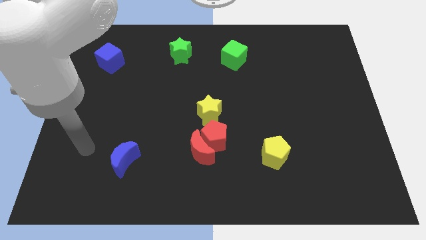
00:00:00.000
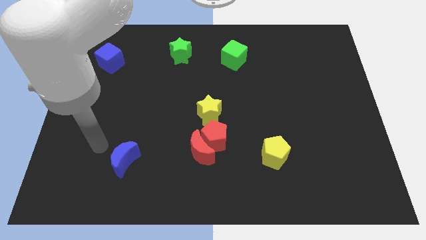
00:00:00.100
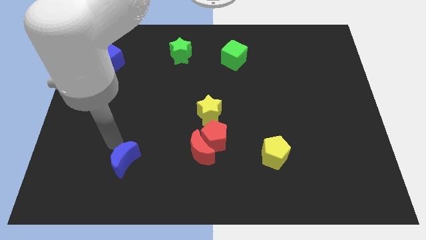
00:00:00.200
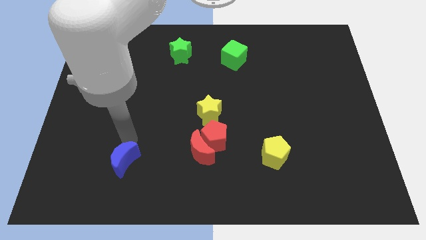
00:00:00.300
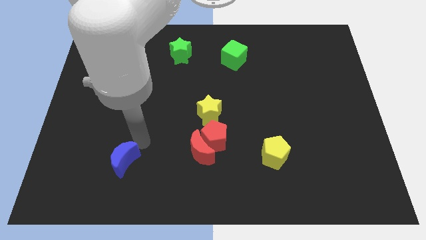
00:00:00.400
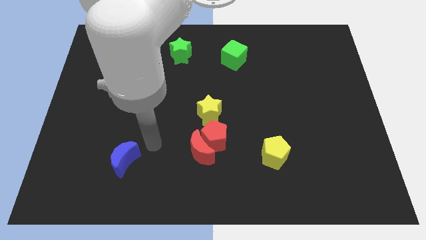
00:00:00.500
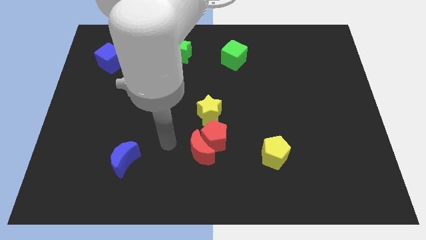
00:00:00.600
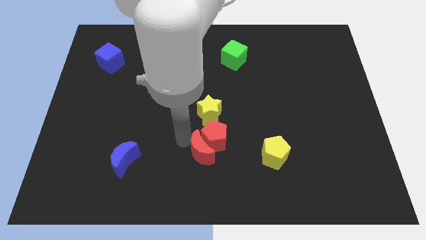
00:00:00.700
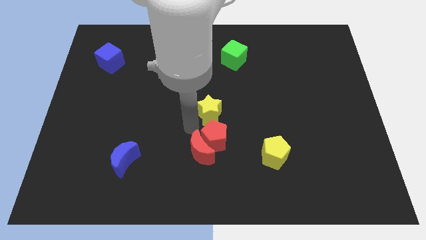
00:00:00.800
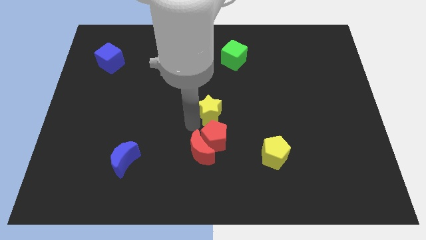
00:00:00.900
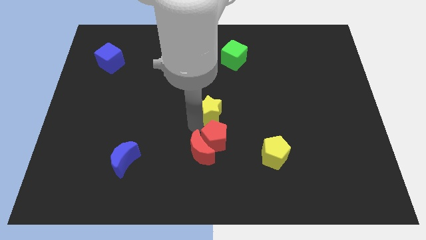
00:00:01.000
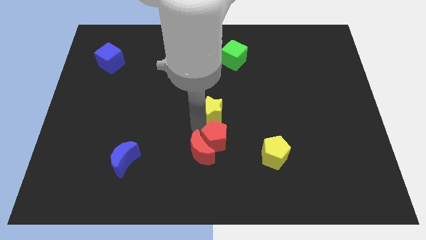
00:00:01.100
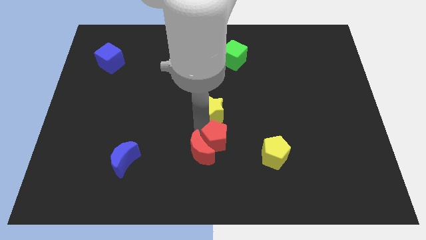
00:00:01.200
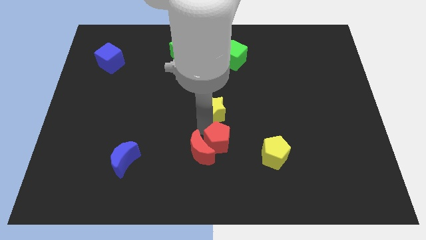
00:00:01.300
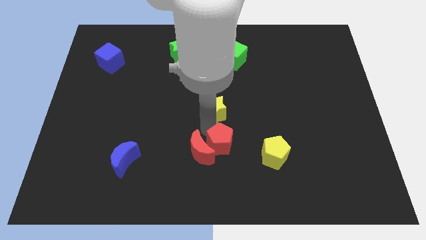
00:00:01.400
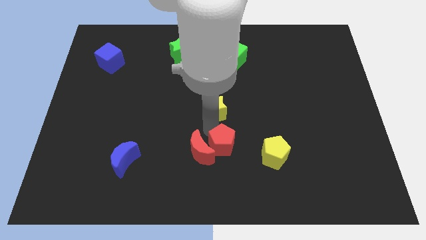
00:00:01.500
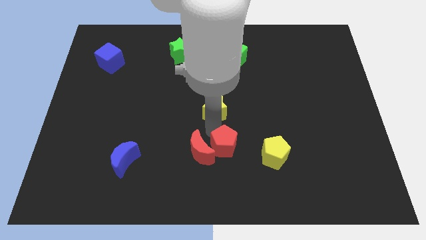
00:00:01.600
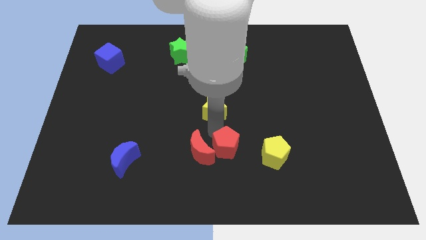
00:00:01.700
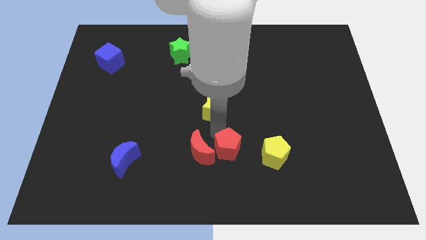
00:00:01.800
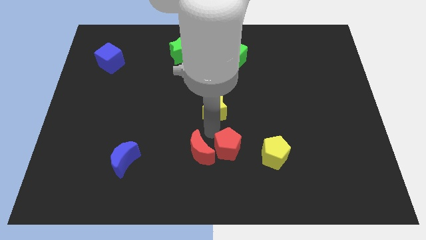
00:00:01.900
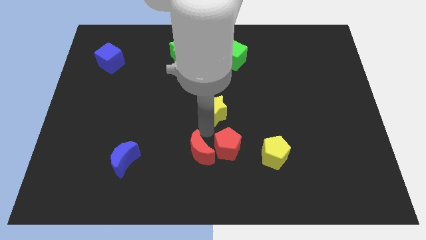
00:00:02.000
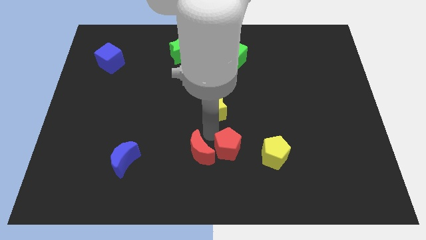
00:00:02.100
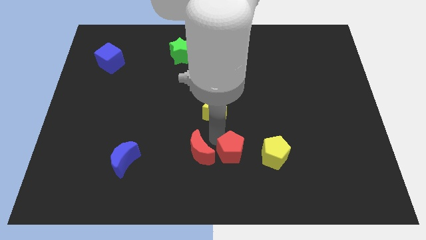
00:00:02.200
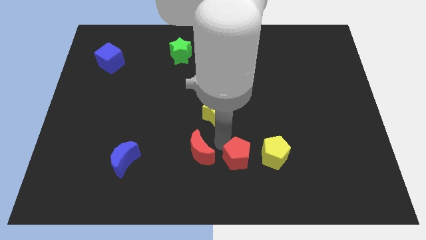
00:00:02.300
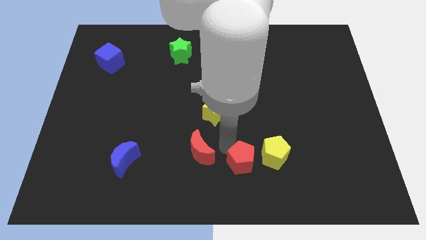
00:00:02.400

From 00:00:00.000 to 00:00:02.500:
move the red pentagon away from the red moon and yellow star

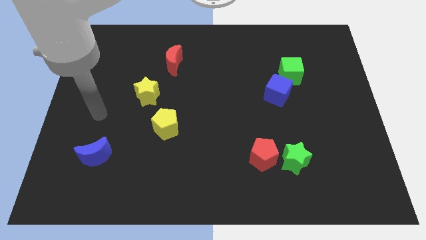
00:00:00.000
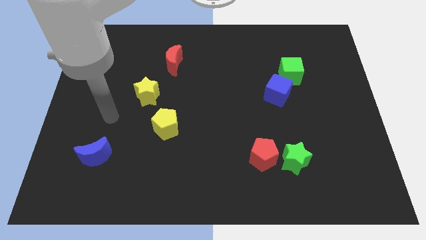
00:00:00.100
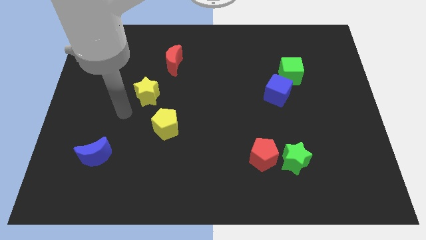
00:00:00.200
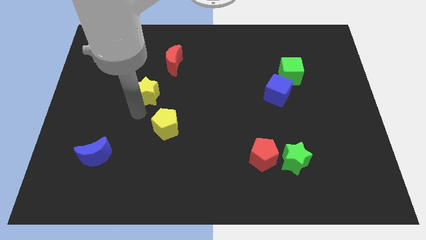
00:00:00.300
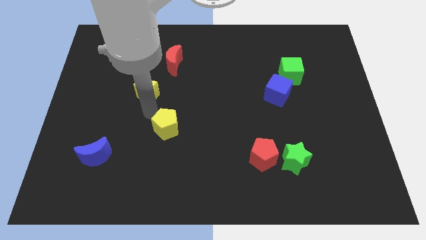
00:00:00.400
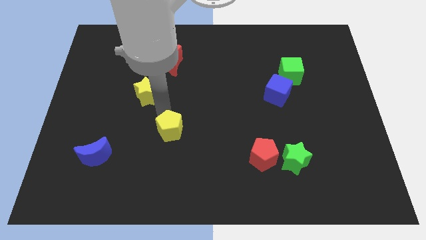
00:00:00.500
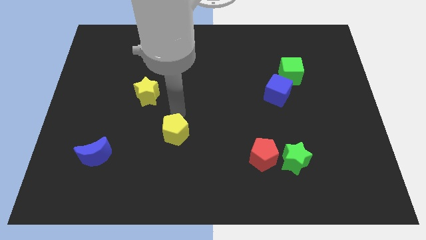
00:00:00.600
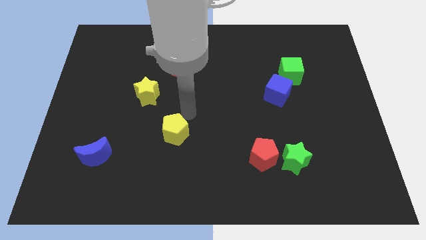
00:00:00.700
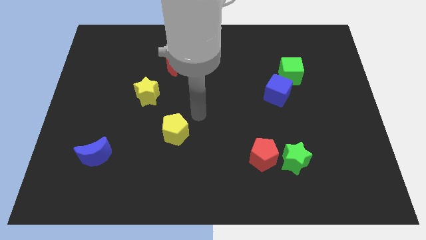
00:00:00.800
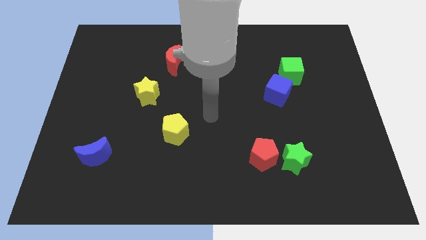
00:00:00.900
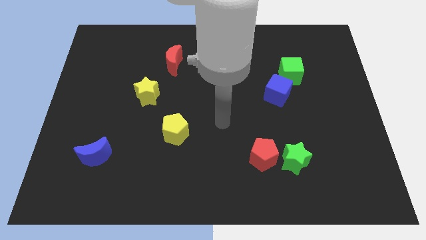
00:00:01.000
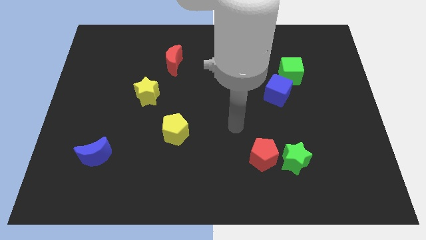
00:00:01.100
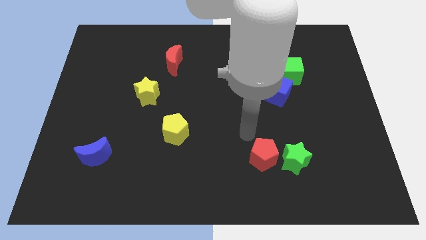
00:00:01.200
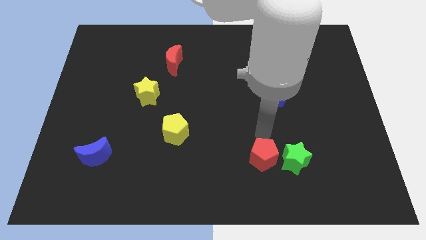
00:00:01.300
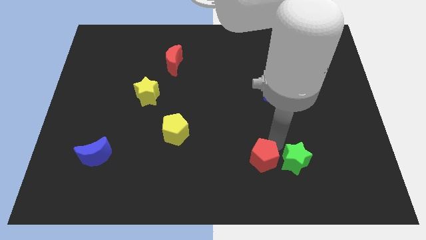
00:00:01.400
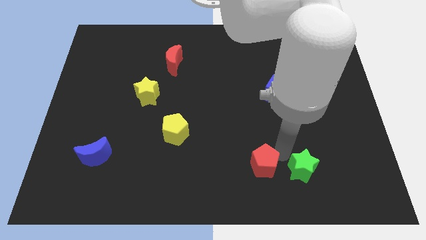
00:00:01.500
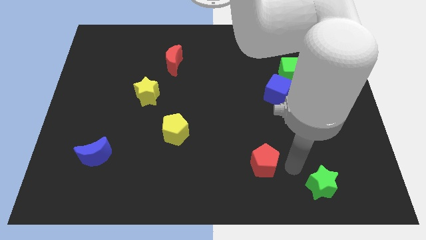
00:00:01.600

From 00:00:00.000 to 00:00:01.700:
move the red pentagon away from the green star

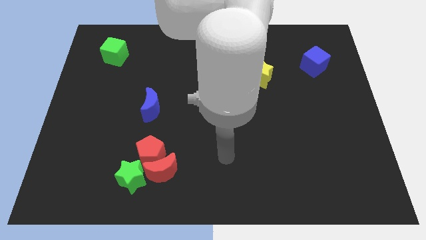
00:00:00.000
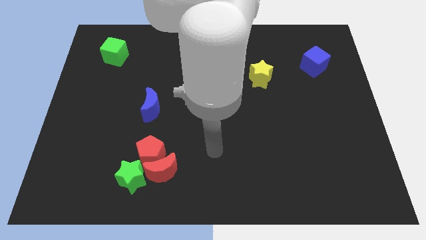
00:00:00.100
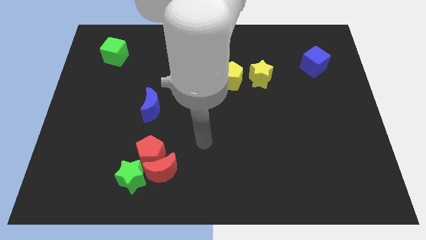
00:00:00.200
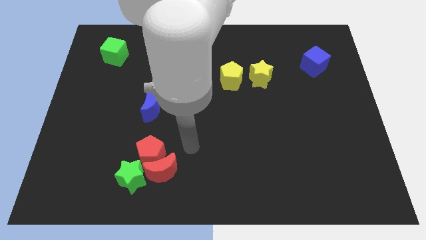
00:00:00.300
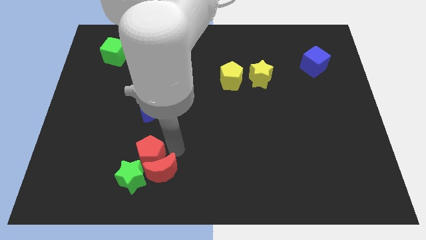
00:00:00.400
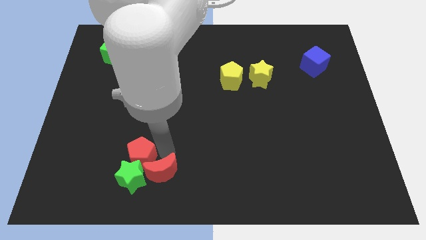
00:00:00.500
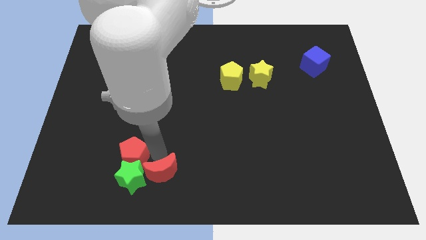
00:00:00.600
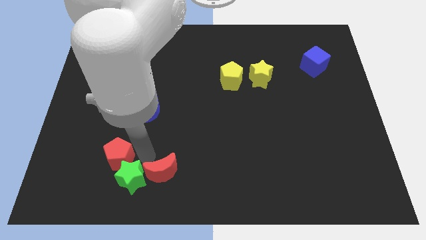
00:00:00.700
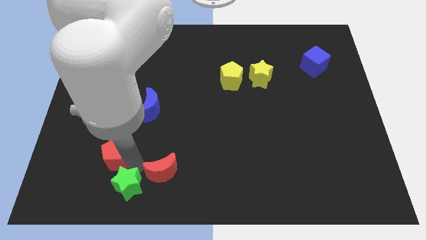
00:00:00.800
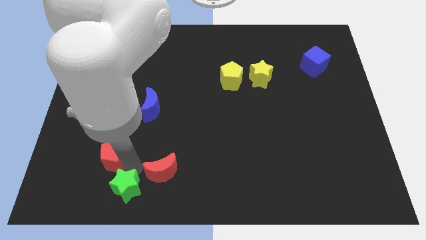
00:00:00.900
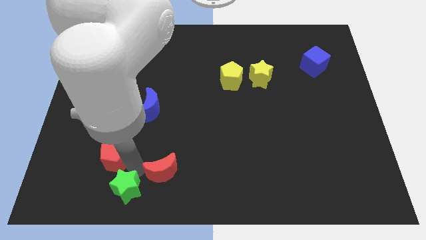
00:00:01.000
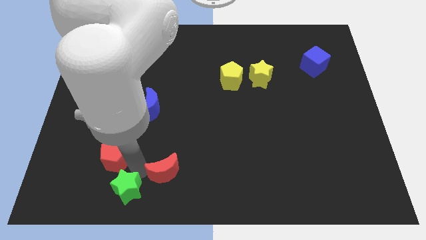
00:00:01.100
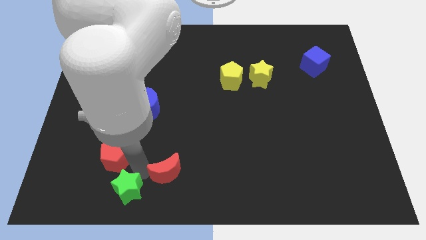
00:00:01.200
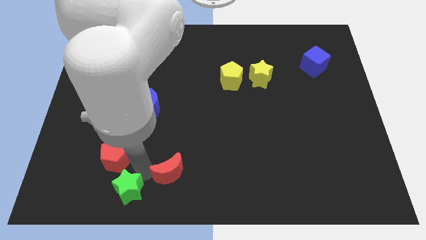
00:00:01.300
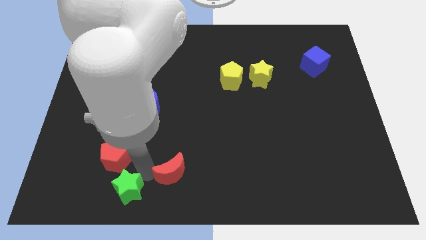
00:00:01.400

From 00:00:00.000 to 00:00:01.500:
separate the red moon from the red pentagon and green star

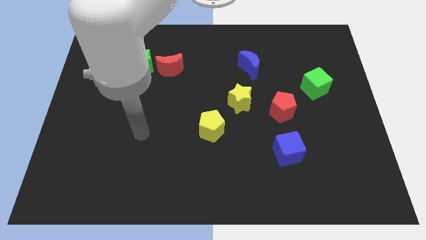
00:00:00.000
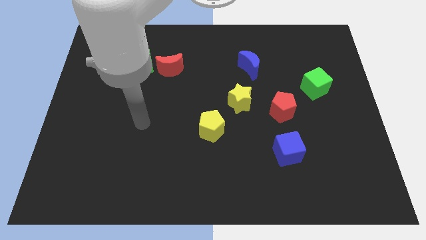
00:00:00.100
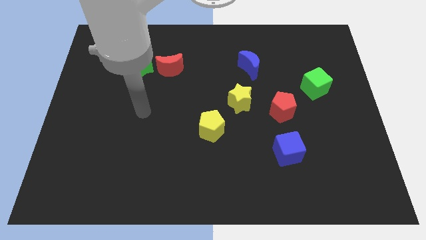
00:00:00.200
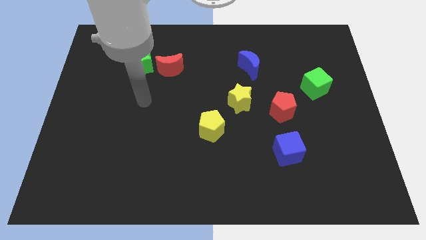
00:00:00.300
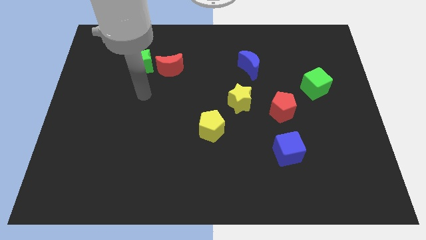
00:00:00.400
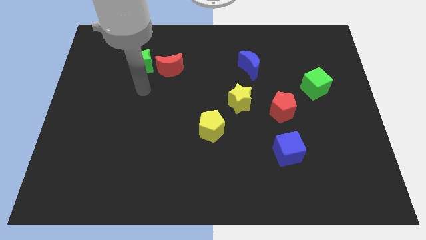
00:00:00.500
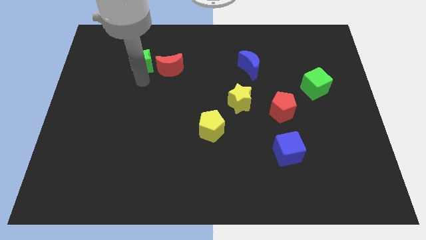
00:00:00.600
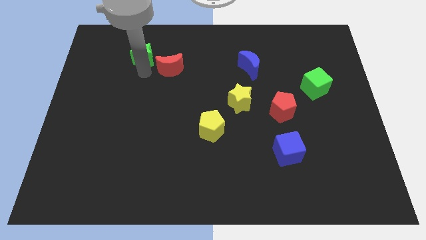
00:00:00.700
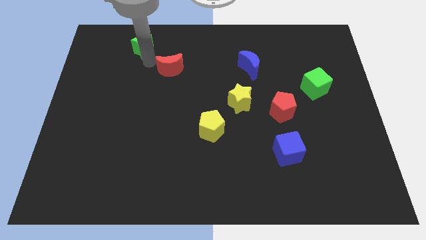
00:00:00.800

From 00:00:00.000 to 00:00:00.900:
pull the red moon apart from the green star

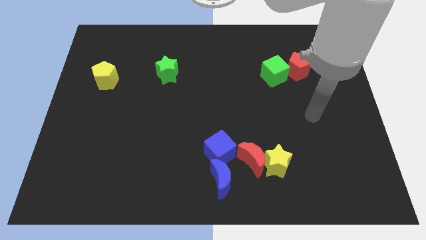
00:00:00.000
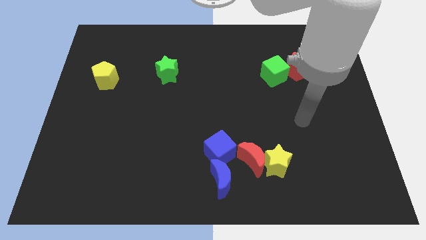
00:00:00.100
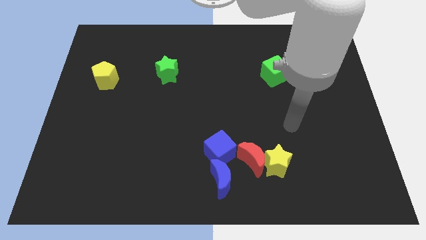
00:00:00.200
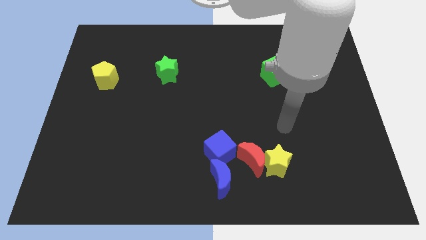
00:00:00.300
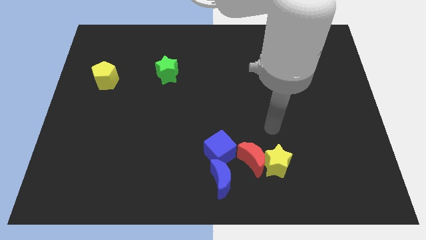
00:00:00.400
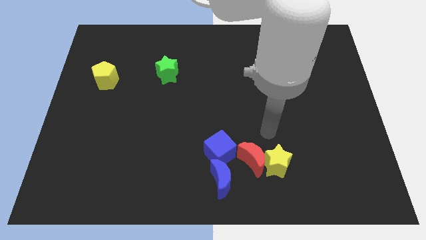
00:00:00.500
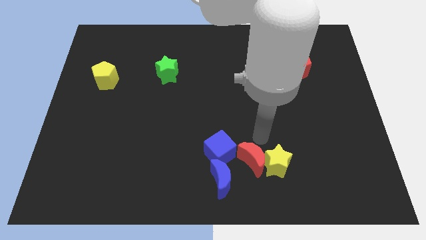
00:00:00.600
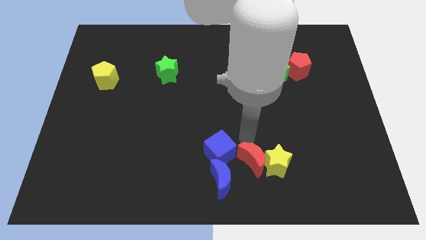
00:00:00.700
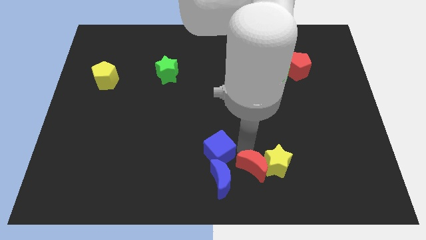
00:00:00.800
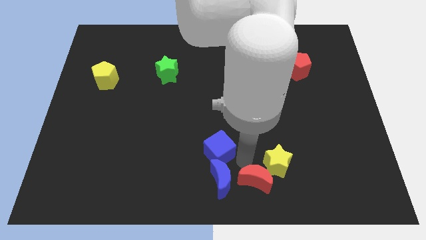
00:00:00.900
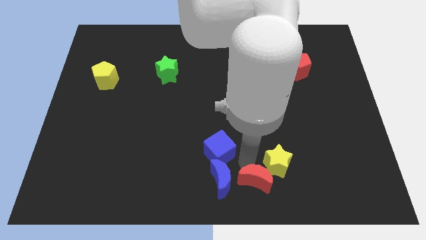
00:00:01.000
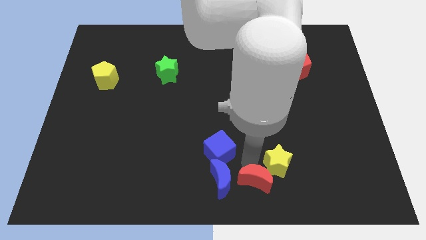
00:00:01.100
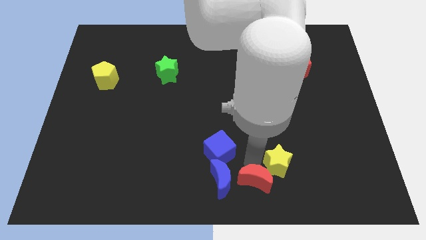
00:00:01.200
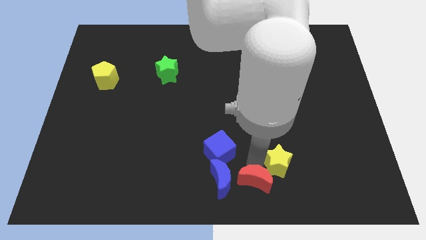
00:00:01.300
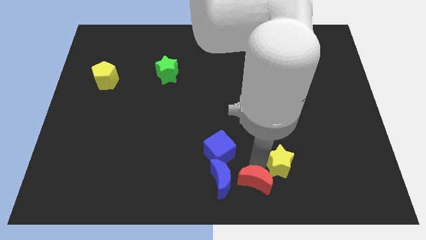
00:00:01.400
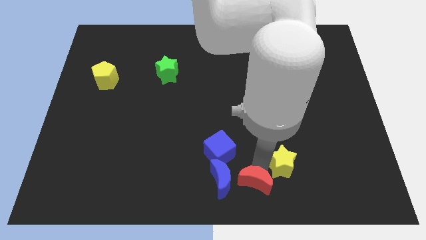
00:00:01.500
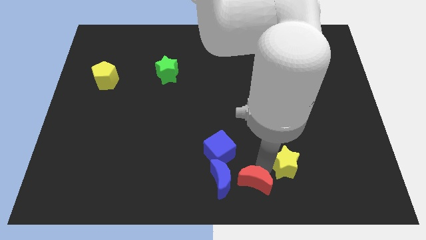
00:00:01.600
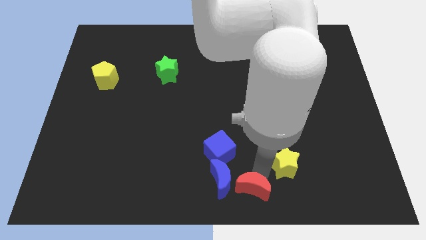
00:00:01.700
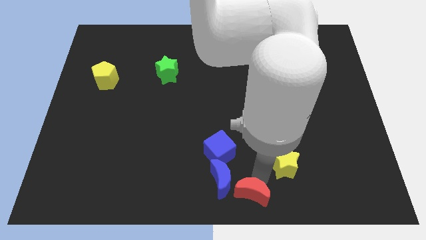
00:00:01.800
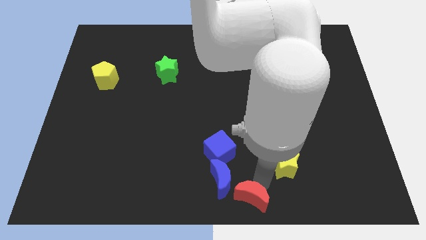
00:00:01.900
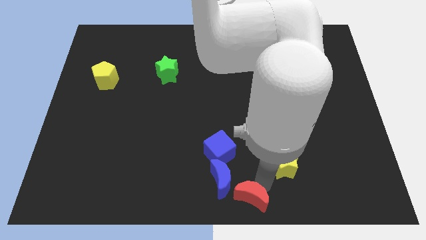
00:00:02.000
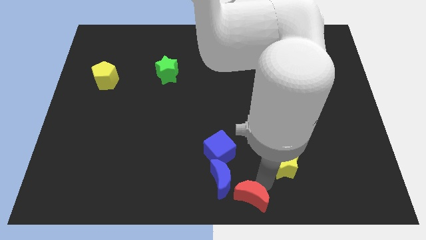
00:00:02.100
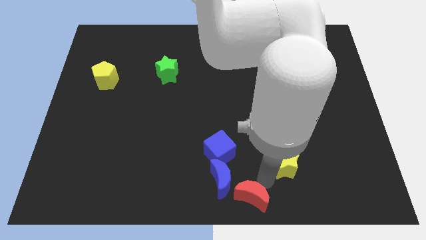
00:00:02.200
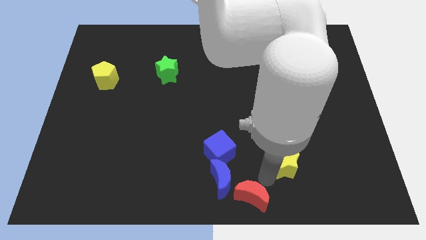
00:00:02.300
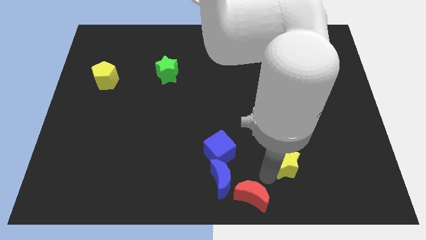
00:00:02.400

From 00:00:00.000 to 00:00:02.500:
pull the yellow star apart from the red moon

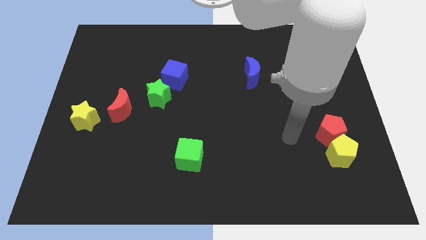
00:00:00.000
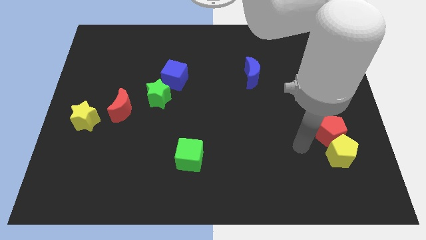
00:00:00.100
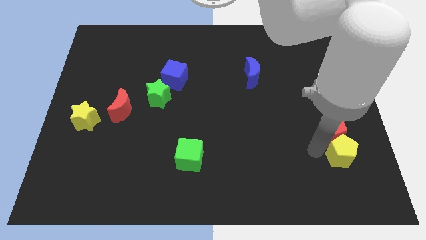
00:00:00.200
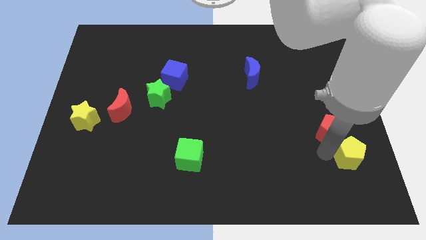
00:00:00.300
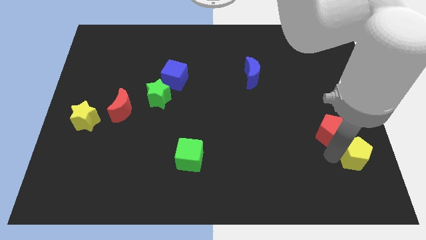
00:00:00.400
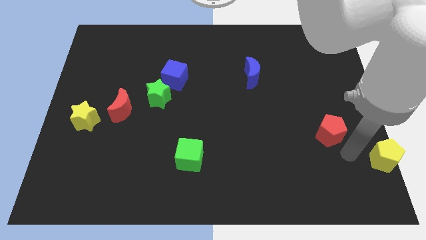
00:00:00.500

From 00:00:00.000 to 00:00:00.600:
move the red pentagon away from the yellow pentagon
